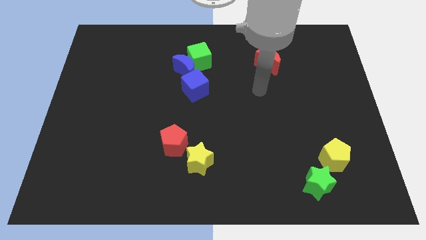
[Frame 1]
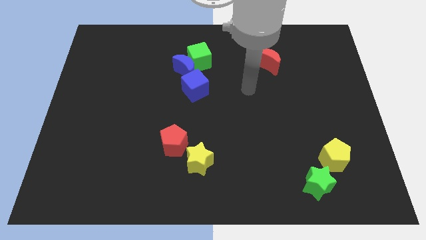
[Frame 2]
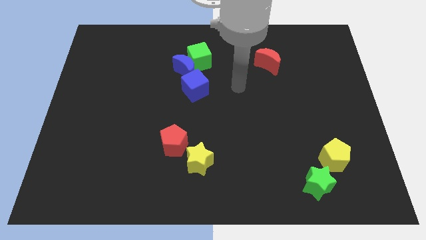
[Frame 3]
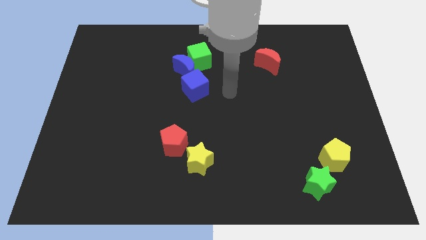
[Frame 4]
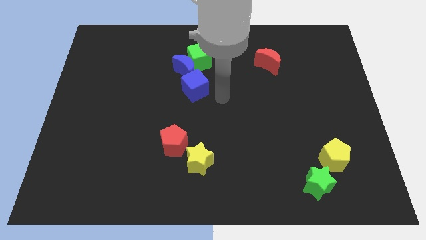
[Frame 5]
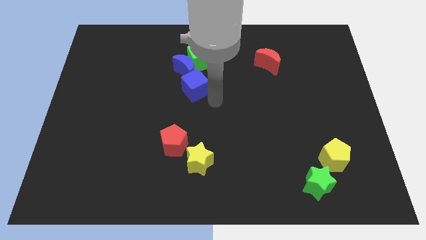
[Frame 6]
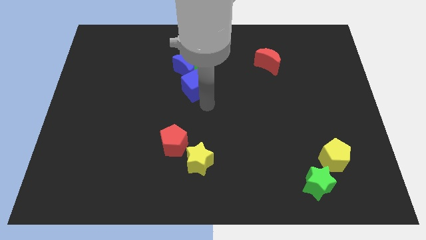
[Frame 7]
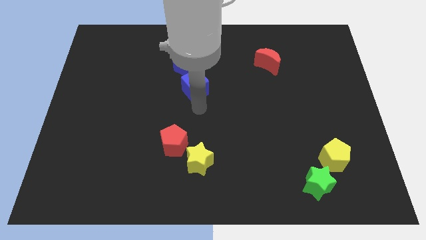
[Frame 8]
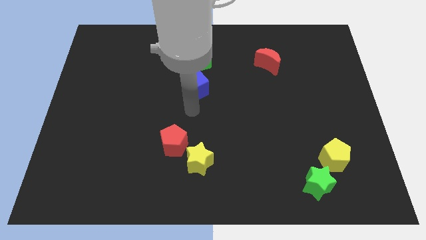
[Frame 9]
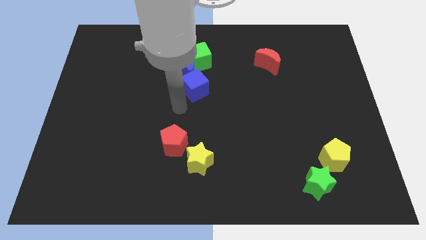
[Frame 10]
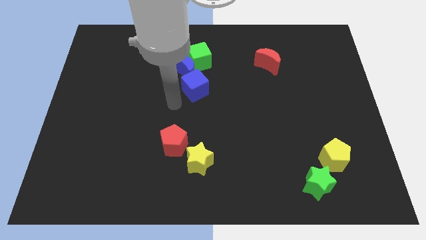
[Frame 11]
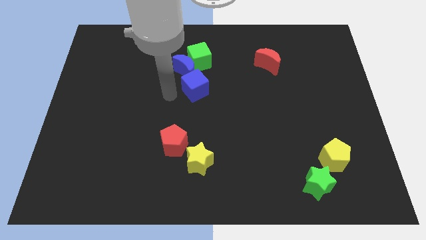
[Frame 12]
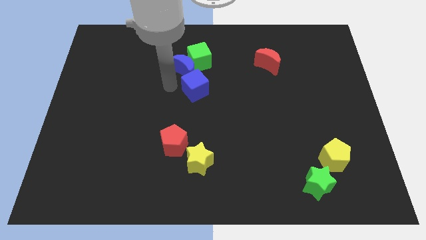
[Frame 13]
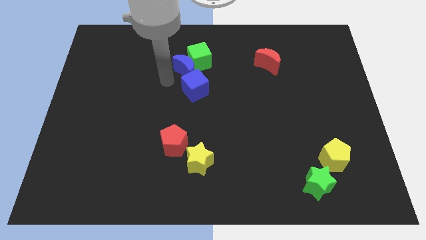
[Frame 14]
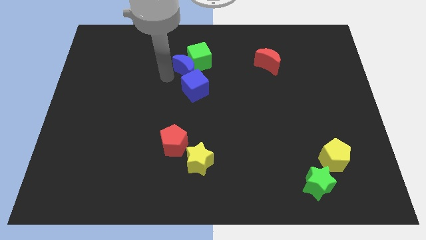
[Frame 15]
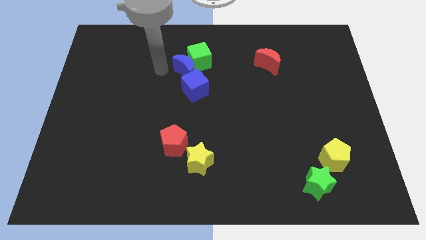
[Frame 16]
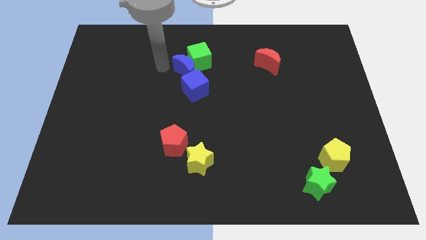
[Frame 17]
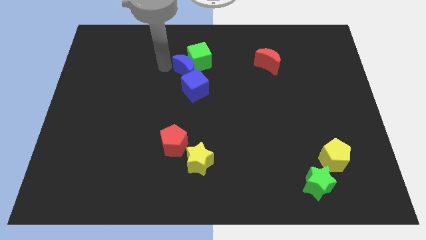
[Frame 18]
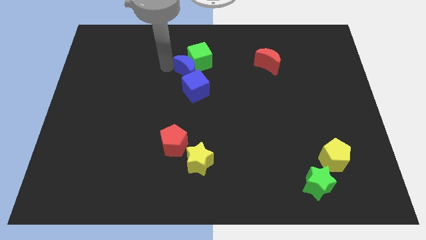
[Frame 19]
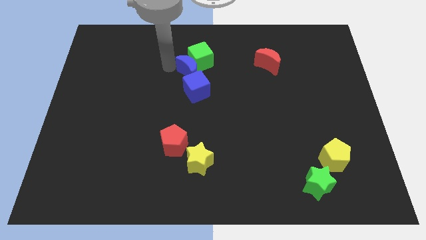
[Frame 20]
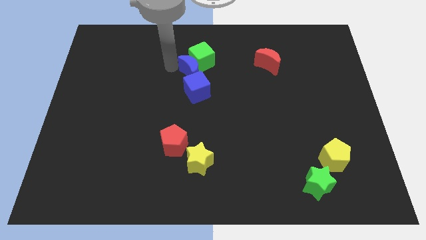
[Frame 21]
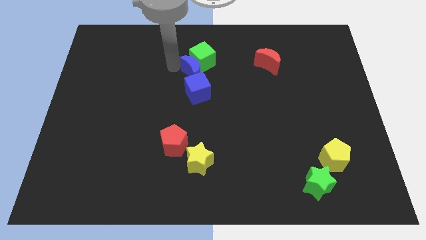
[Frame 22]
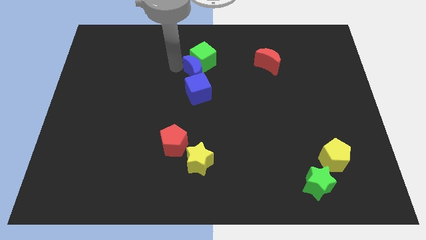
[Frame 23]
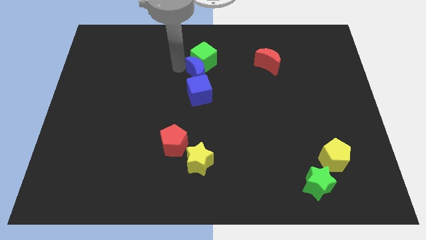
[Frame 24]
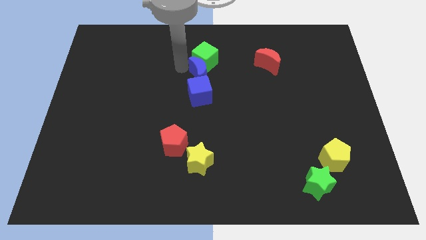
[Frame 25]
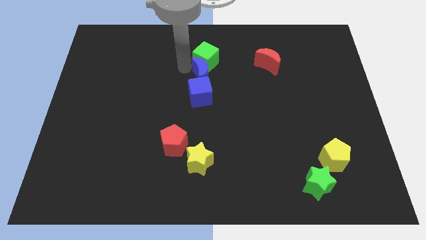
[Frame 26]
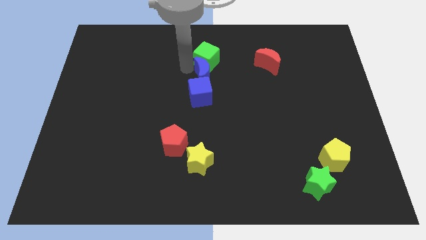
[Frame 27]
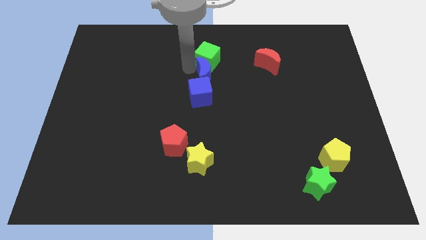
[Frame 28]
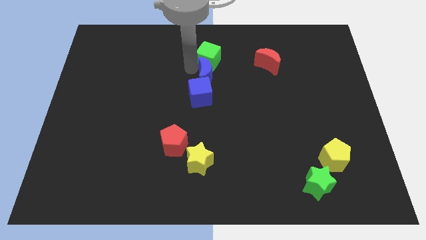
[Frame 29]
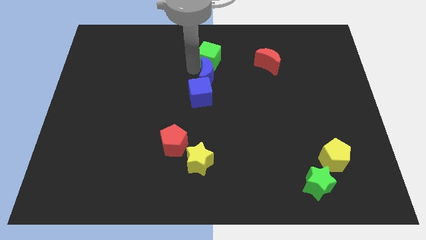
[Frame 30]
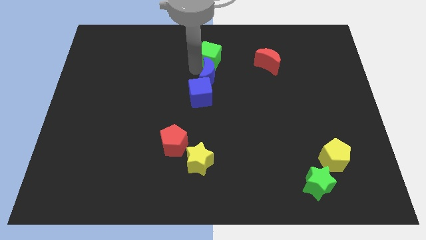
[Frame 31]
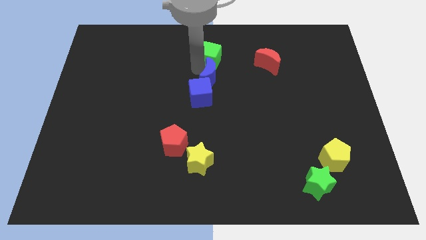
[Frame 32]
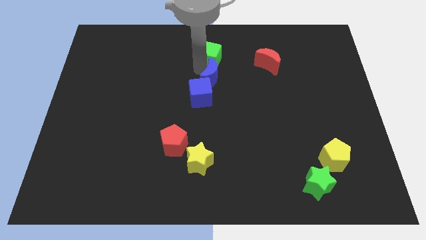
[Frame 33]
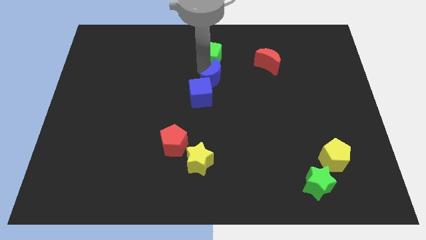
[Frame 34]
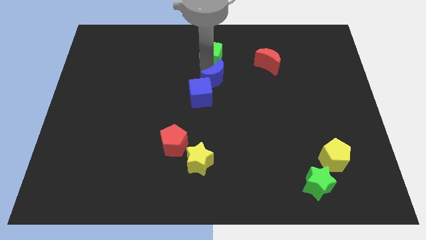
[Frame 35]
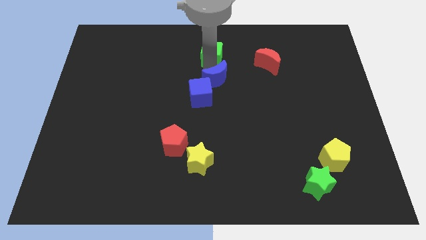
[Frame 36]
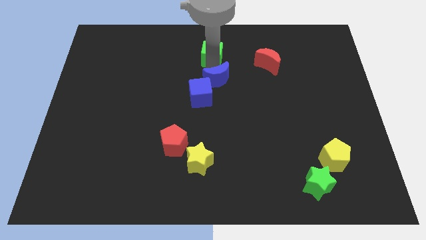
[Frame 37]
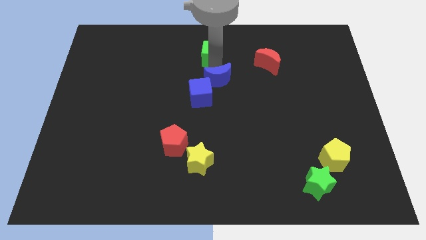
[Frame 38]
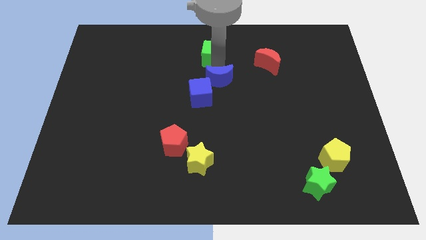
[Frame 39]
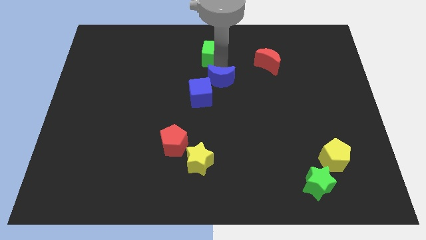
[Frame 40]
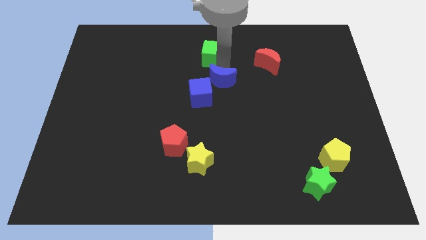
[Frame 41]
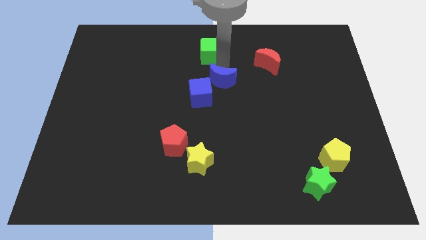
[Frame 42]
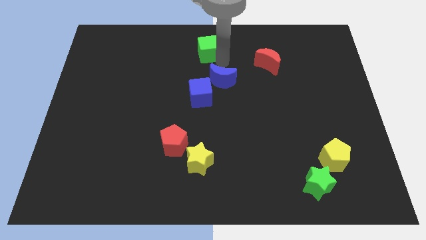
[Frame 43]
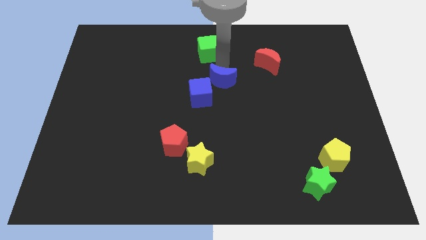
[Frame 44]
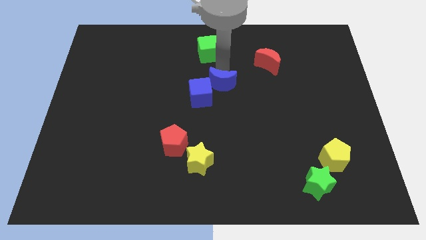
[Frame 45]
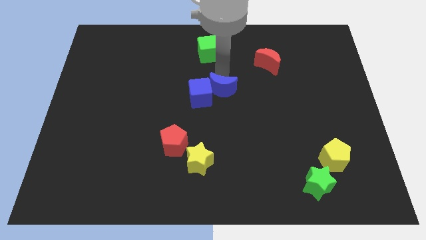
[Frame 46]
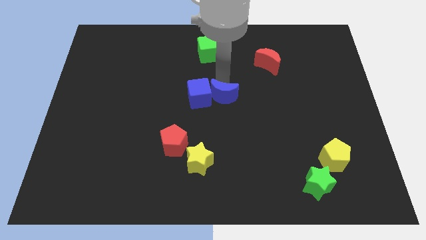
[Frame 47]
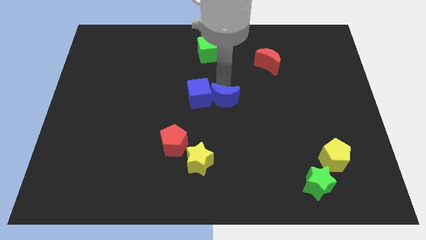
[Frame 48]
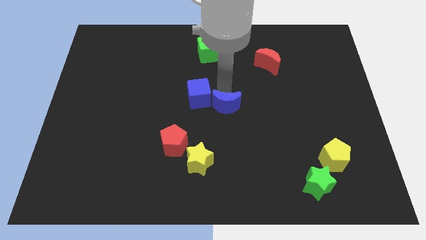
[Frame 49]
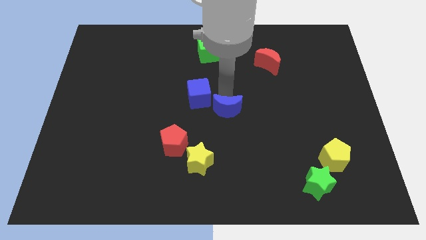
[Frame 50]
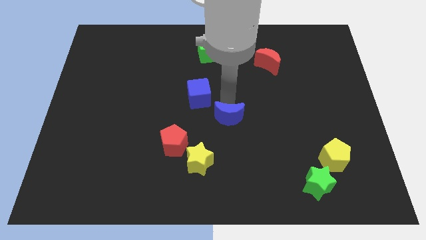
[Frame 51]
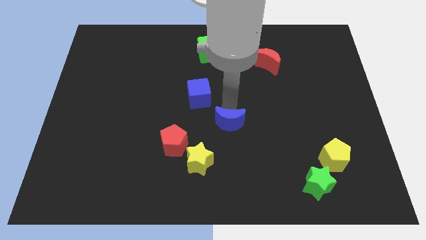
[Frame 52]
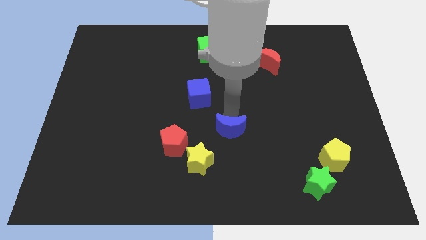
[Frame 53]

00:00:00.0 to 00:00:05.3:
move the blue moon to the right side of the red pentagon

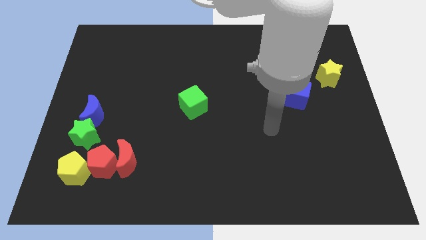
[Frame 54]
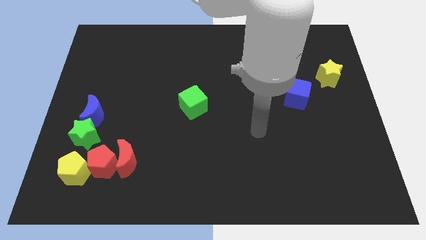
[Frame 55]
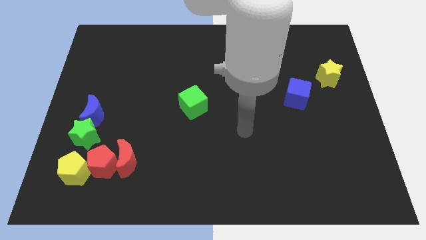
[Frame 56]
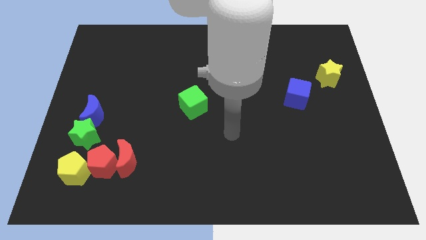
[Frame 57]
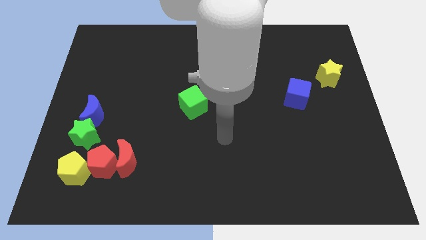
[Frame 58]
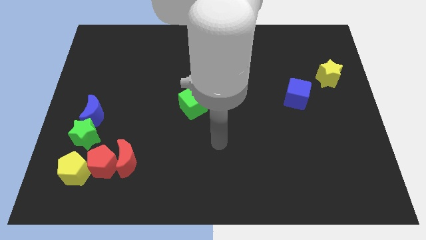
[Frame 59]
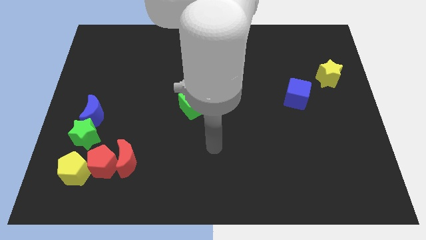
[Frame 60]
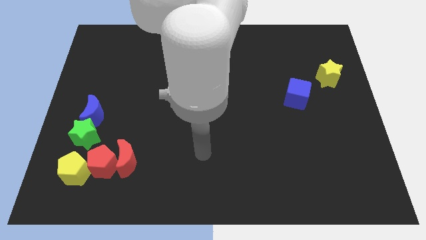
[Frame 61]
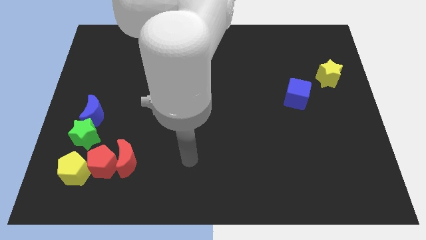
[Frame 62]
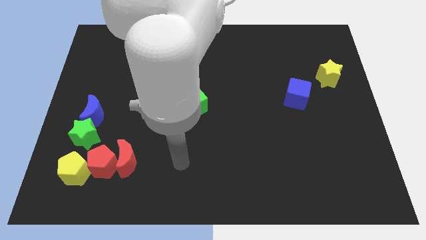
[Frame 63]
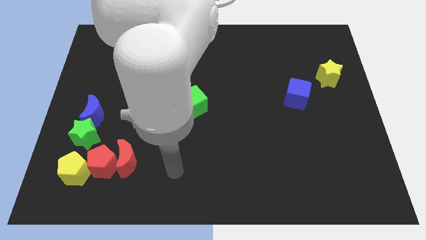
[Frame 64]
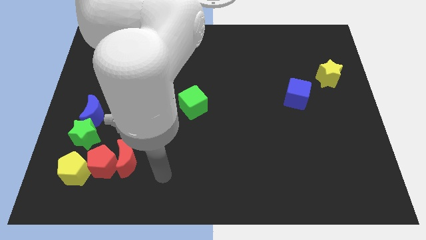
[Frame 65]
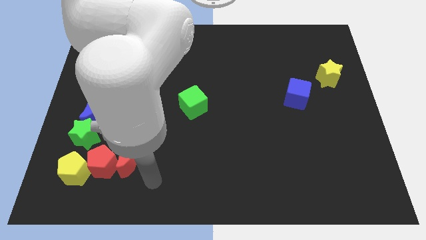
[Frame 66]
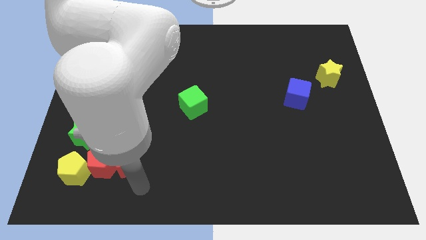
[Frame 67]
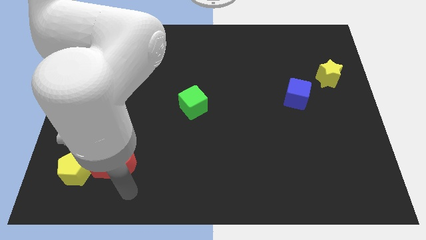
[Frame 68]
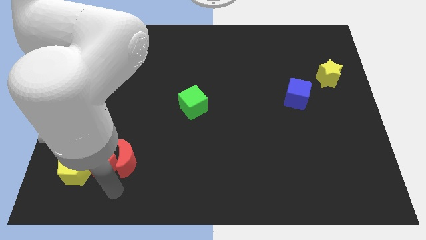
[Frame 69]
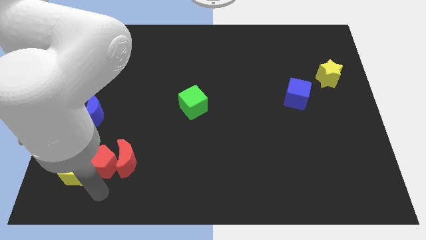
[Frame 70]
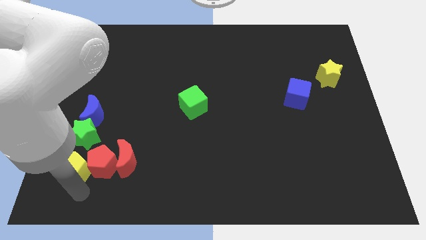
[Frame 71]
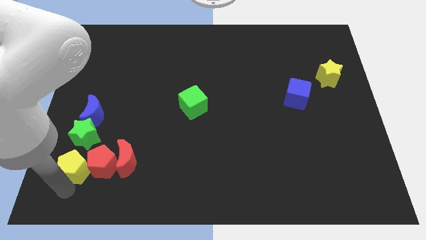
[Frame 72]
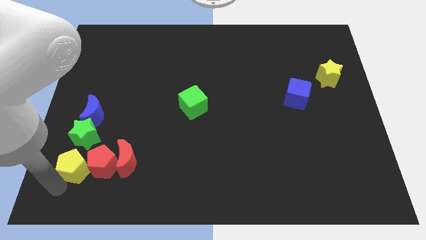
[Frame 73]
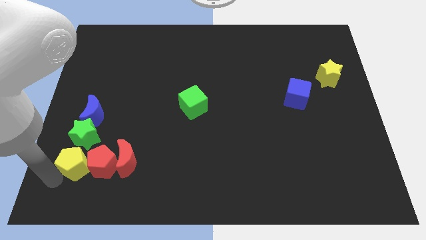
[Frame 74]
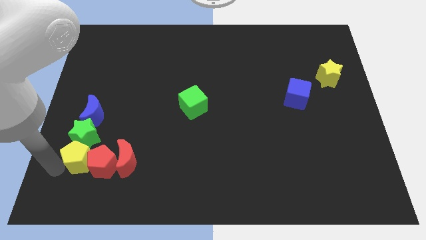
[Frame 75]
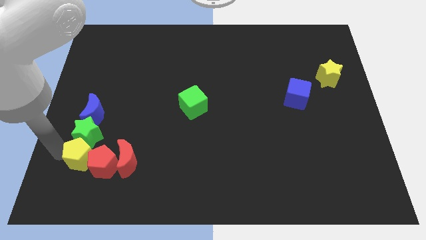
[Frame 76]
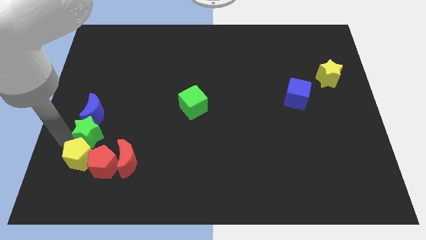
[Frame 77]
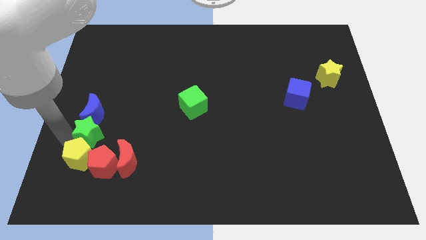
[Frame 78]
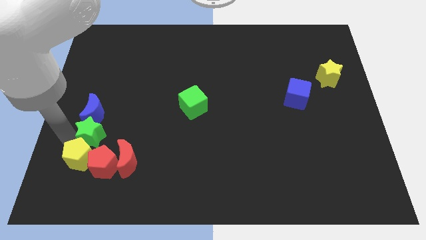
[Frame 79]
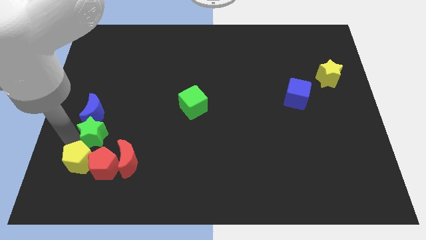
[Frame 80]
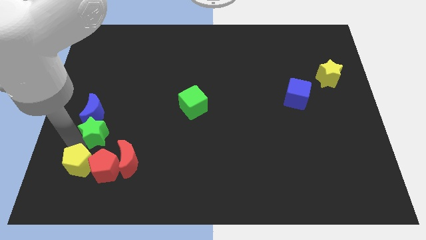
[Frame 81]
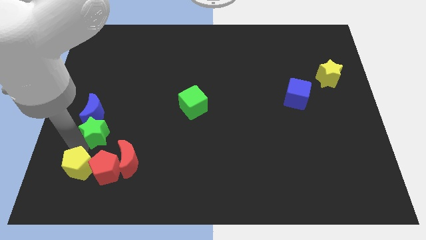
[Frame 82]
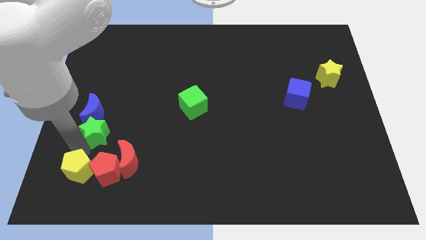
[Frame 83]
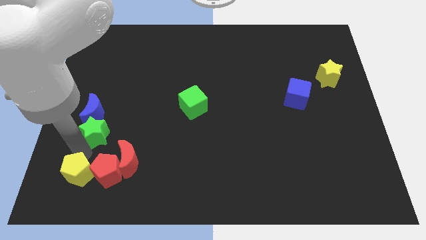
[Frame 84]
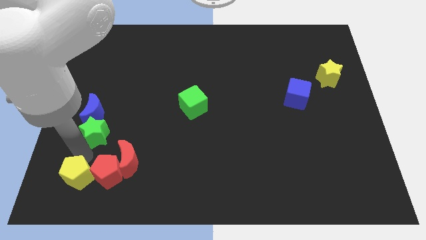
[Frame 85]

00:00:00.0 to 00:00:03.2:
push the yellow pentagon to the bottom left of the red moon
